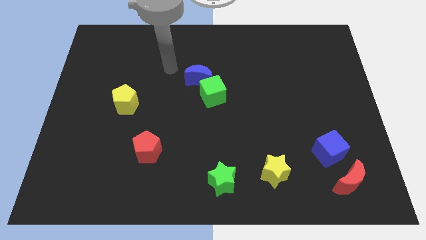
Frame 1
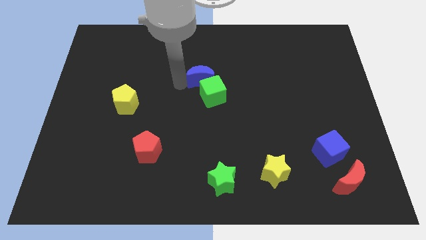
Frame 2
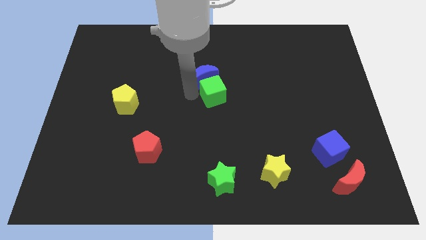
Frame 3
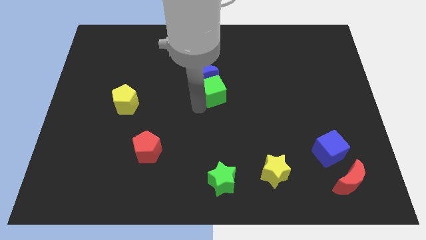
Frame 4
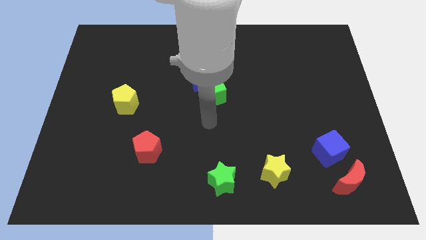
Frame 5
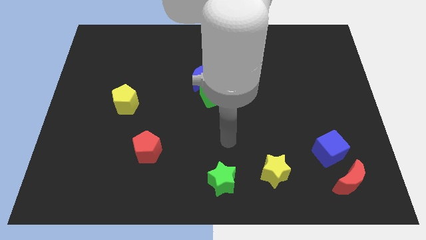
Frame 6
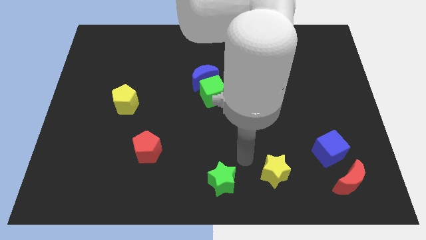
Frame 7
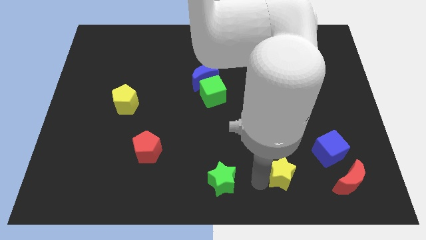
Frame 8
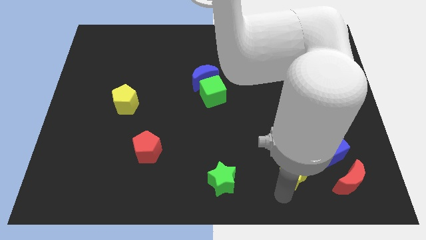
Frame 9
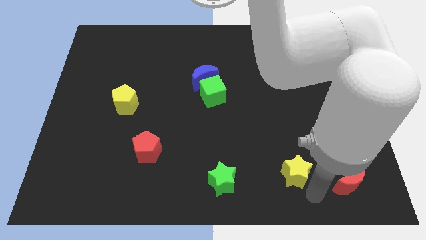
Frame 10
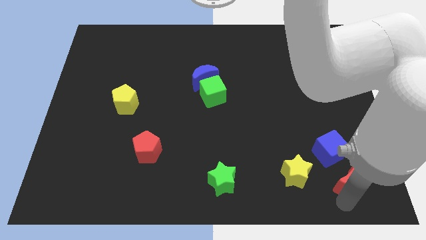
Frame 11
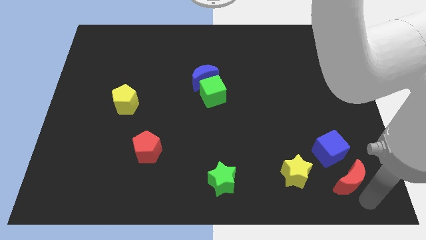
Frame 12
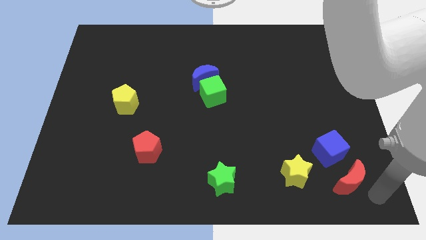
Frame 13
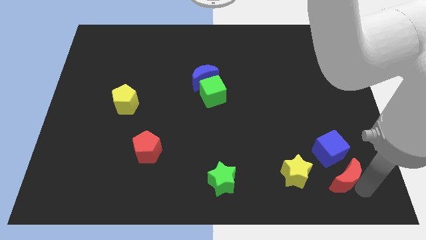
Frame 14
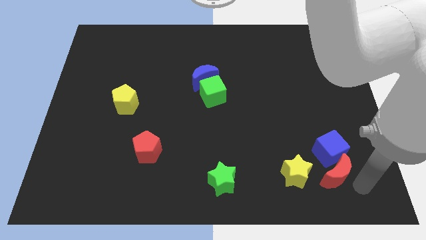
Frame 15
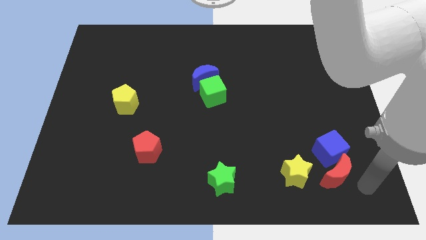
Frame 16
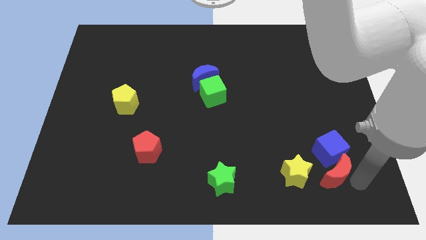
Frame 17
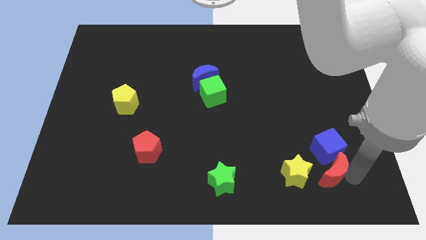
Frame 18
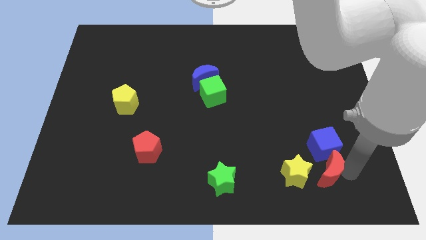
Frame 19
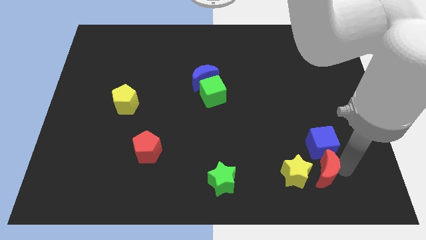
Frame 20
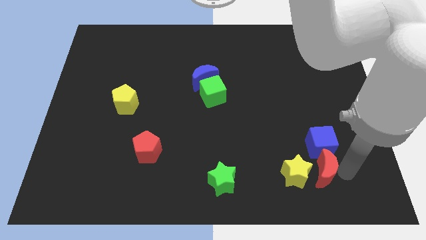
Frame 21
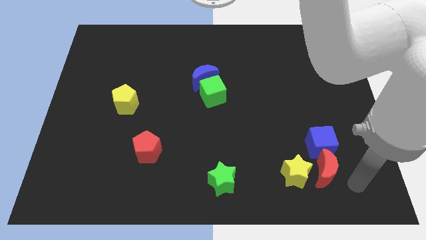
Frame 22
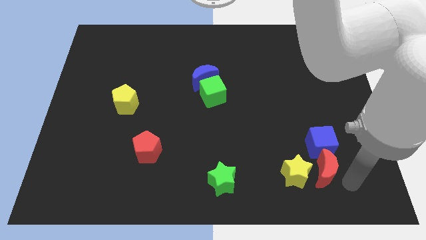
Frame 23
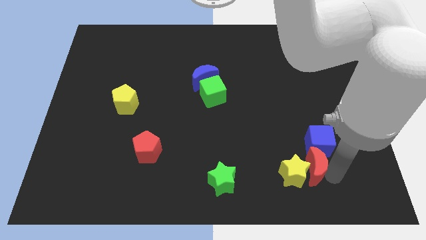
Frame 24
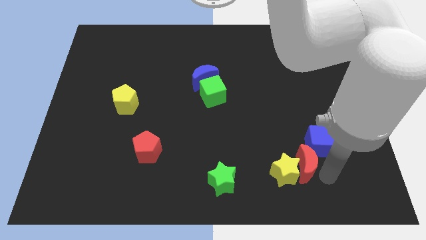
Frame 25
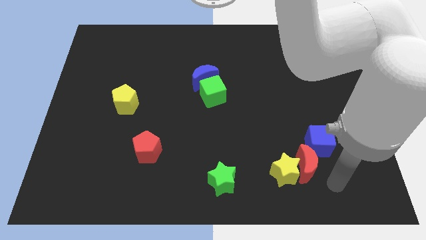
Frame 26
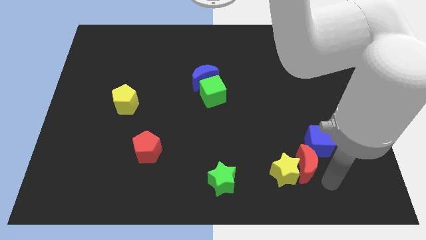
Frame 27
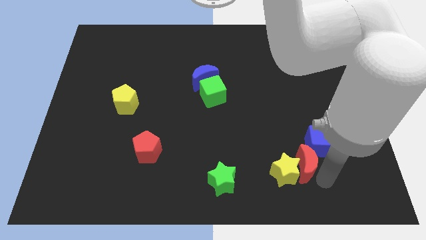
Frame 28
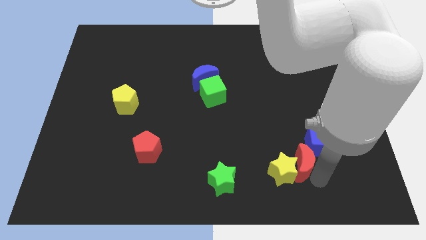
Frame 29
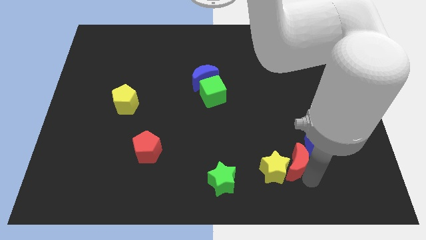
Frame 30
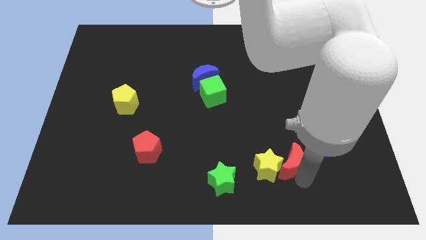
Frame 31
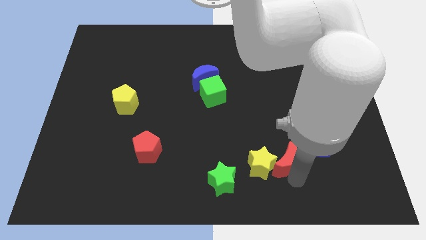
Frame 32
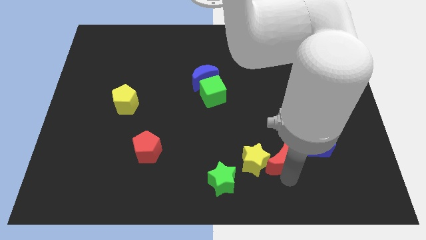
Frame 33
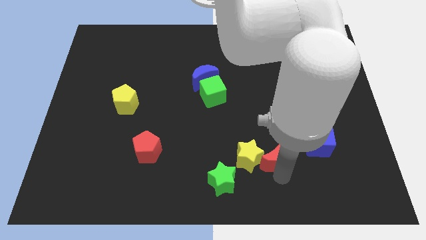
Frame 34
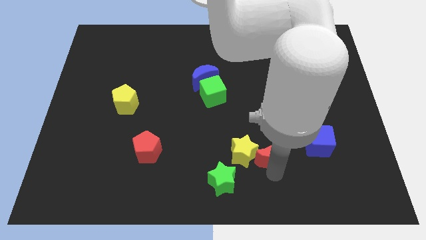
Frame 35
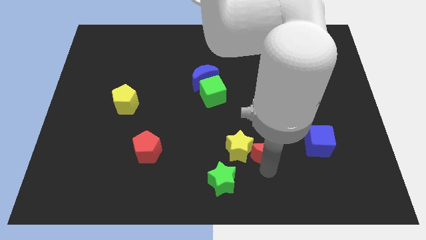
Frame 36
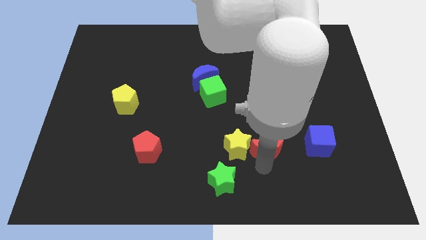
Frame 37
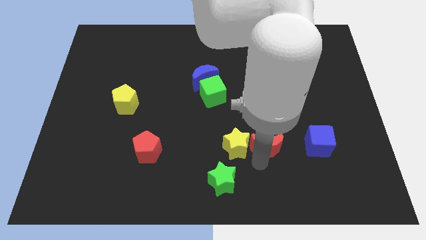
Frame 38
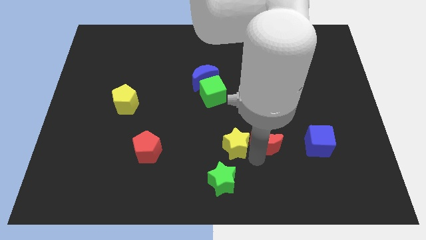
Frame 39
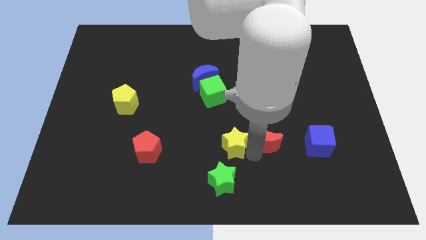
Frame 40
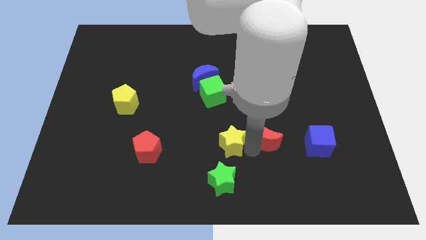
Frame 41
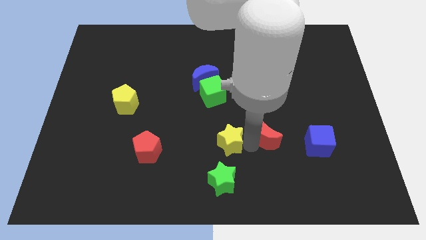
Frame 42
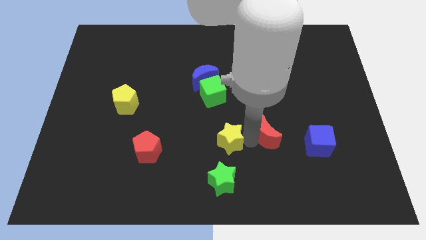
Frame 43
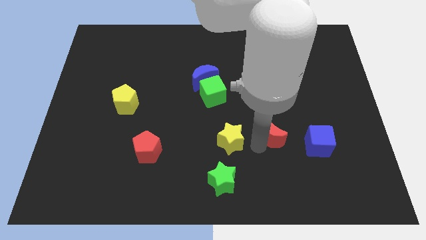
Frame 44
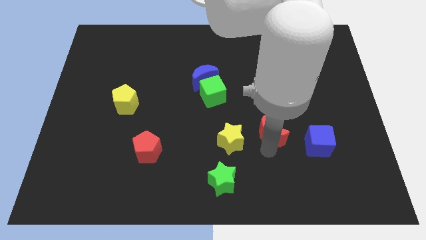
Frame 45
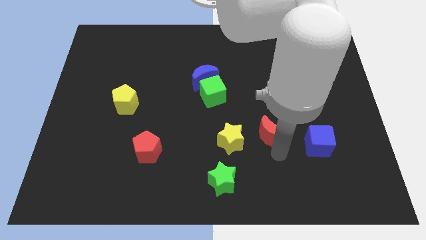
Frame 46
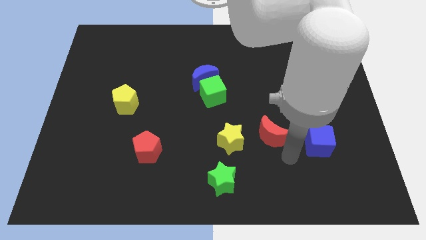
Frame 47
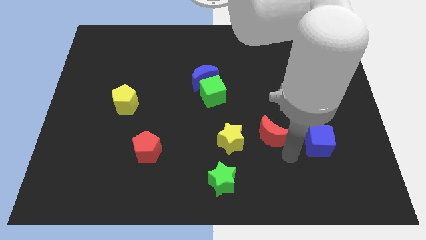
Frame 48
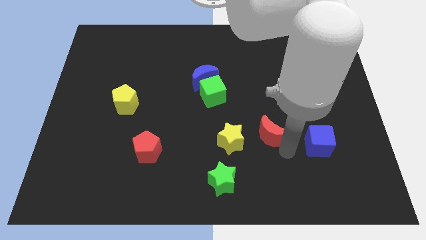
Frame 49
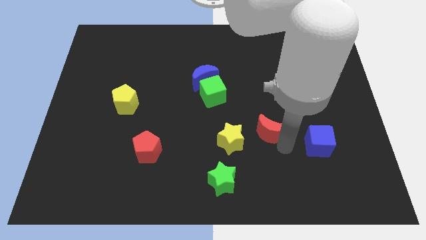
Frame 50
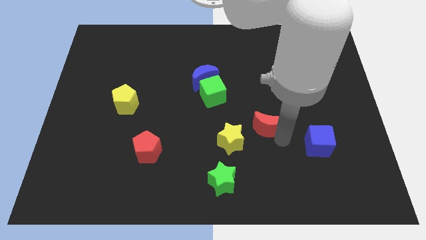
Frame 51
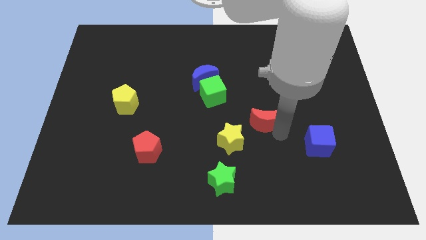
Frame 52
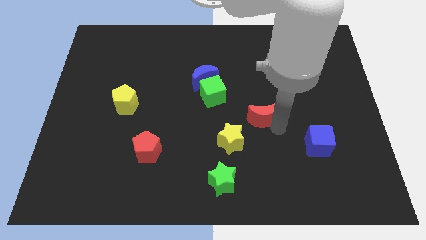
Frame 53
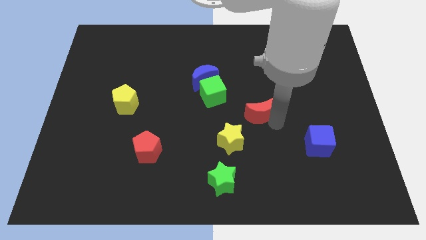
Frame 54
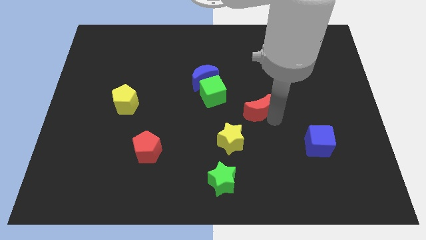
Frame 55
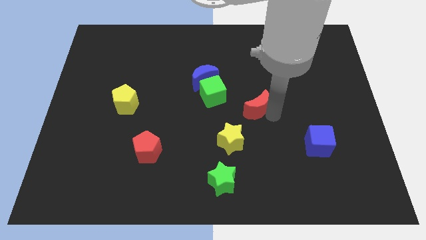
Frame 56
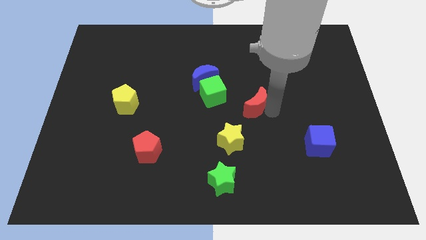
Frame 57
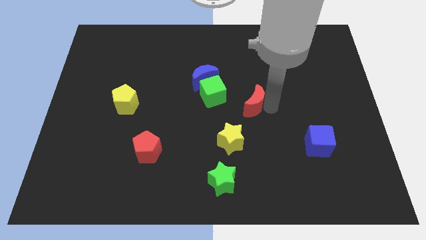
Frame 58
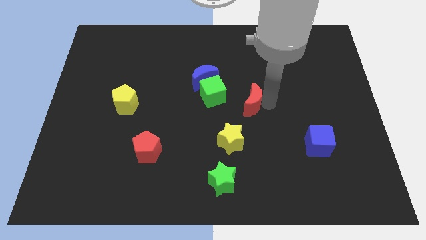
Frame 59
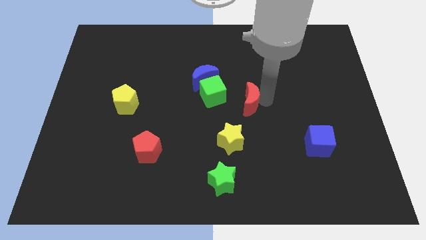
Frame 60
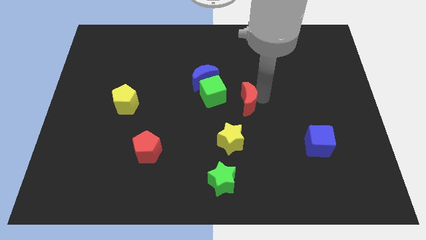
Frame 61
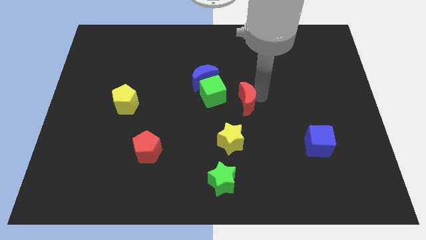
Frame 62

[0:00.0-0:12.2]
slide the red moon diagonally down and to the right of the blue moon
